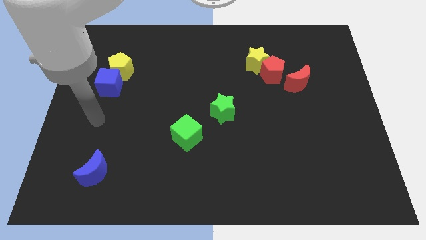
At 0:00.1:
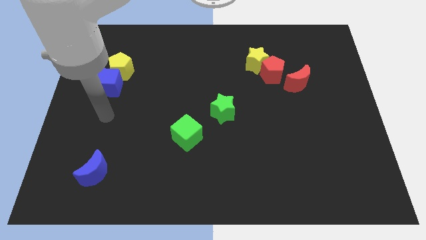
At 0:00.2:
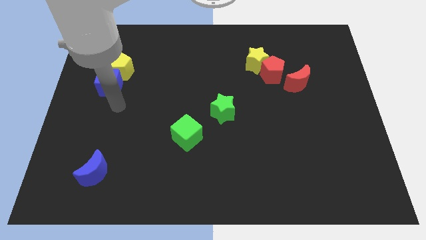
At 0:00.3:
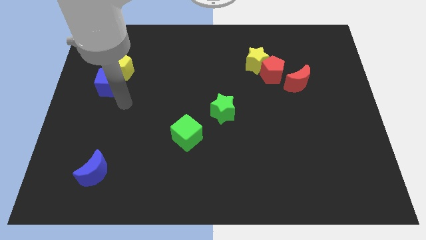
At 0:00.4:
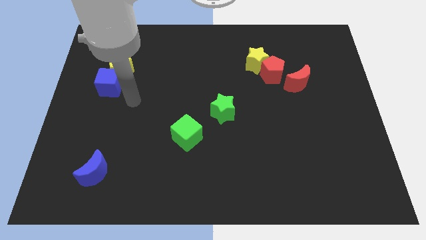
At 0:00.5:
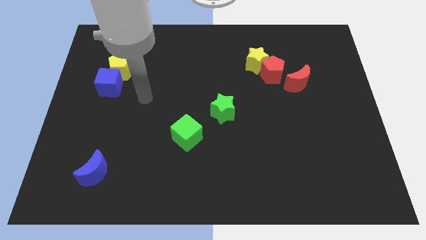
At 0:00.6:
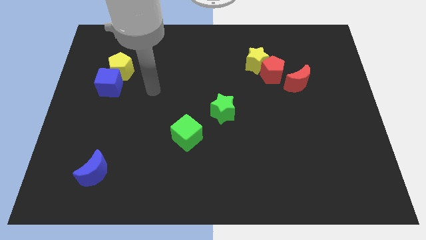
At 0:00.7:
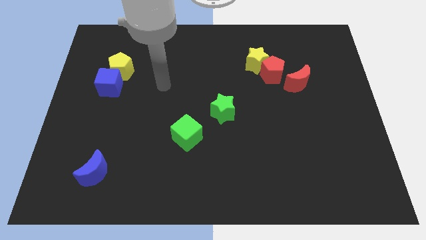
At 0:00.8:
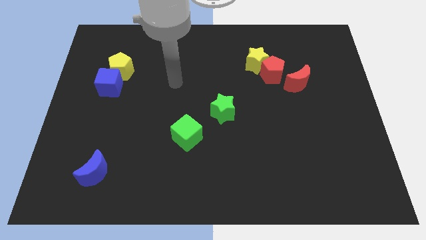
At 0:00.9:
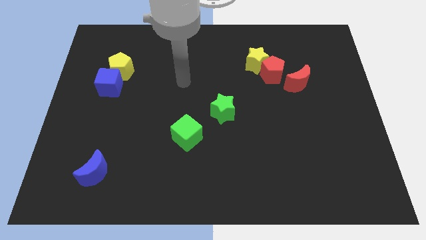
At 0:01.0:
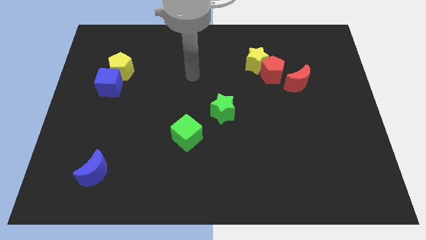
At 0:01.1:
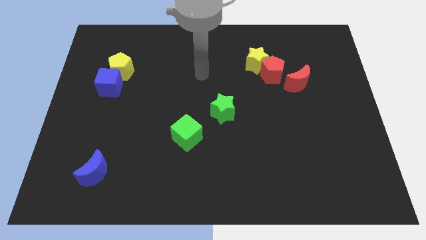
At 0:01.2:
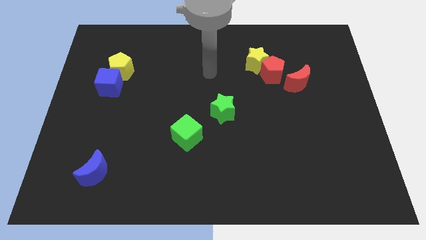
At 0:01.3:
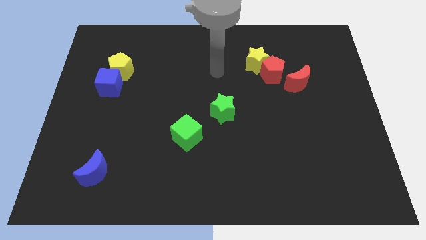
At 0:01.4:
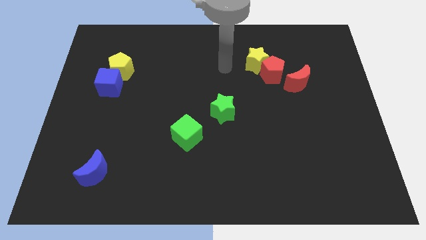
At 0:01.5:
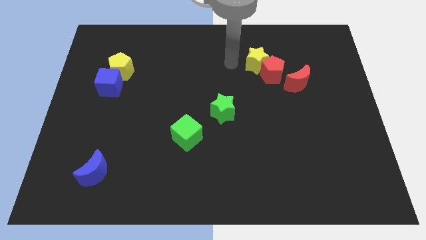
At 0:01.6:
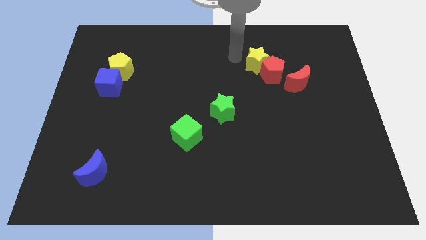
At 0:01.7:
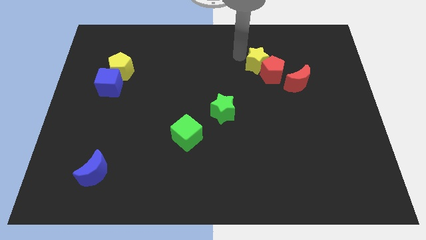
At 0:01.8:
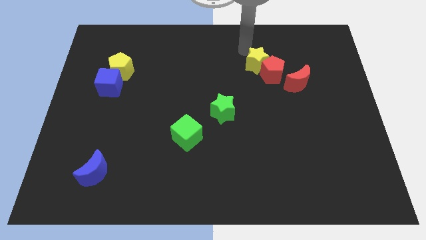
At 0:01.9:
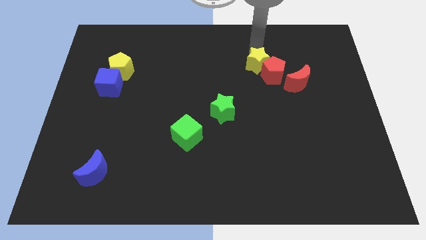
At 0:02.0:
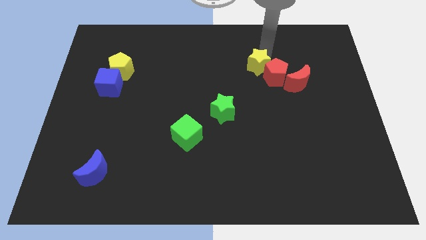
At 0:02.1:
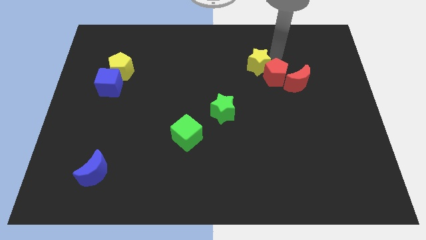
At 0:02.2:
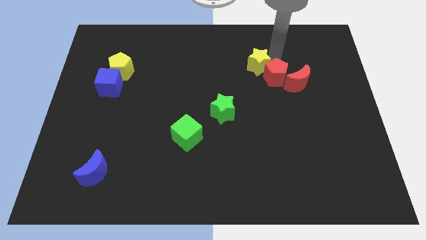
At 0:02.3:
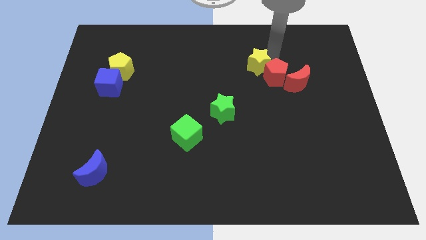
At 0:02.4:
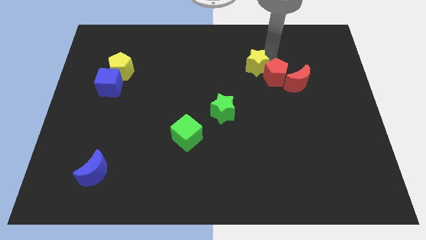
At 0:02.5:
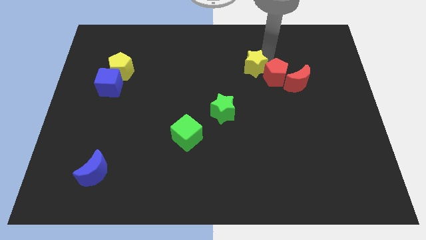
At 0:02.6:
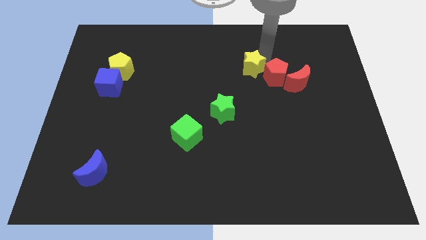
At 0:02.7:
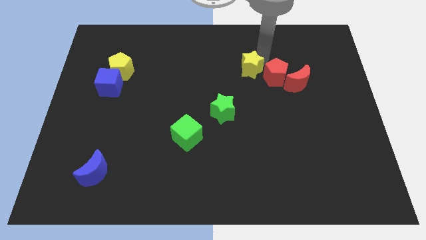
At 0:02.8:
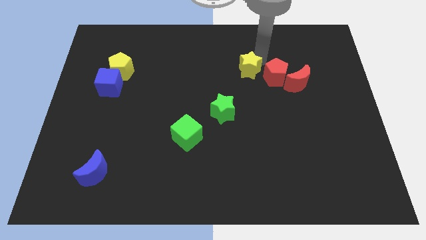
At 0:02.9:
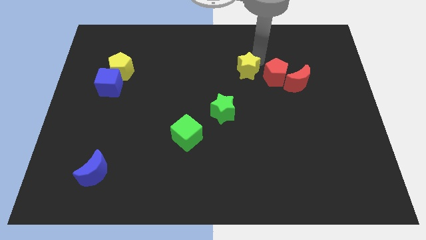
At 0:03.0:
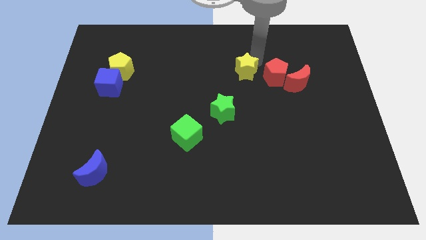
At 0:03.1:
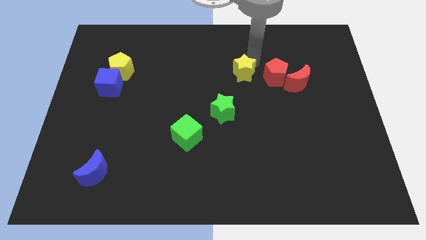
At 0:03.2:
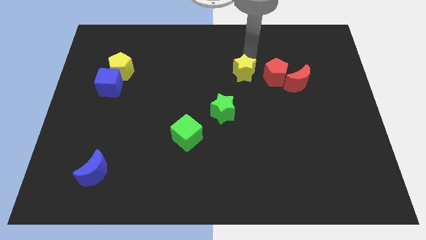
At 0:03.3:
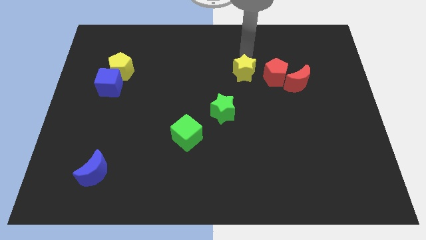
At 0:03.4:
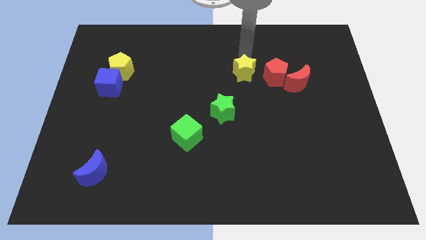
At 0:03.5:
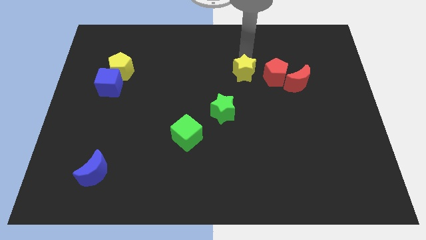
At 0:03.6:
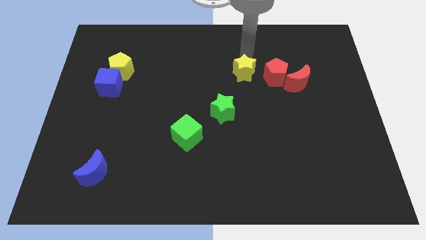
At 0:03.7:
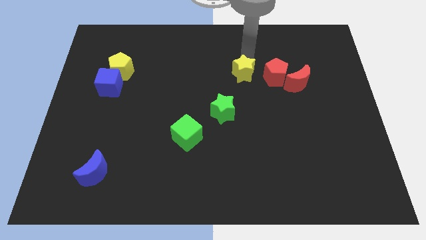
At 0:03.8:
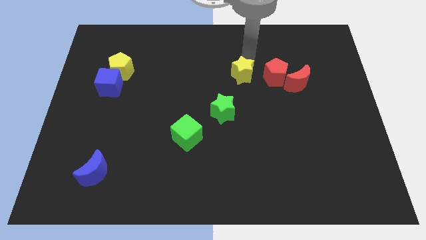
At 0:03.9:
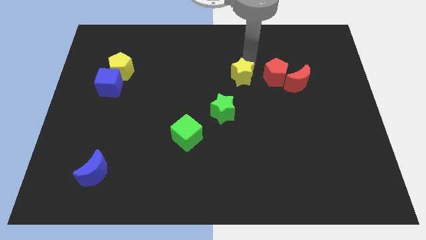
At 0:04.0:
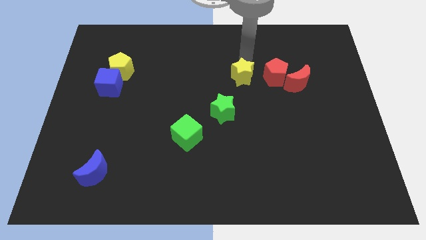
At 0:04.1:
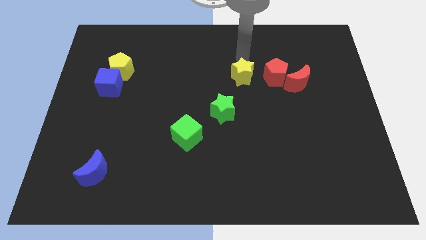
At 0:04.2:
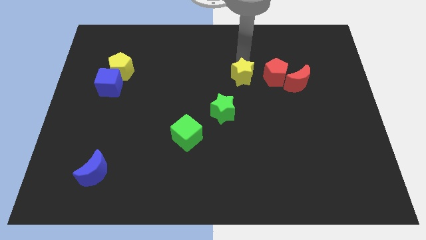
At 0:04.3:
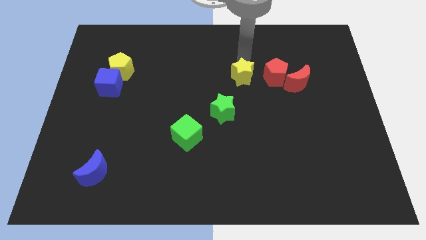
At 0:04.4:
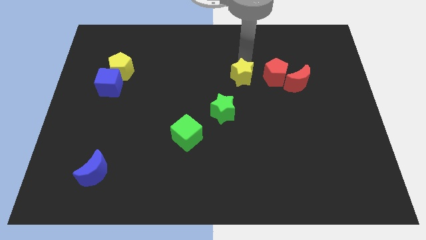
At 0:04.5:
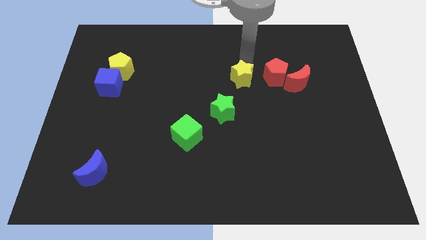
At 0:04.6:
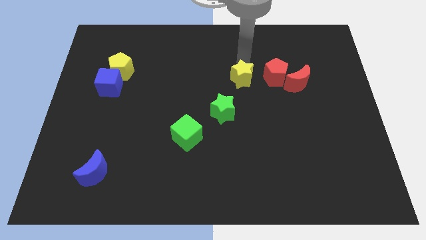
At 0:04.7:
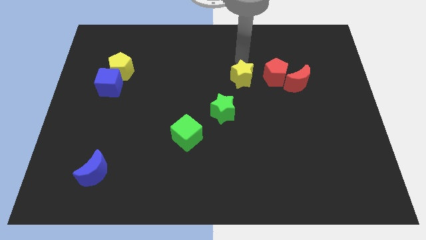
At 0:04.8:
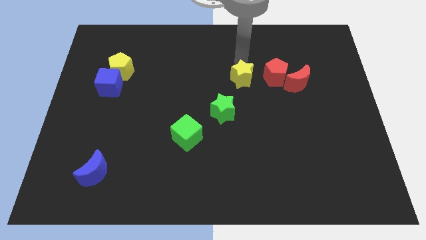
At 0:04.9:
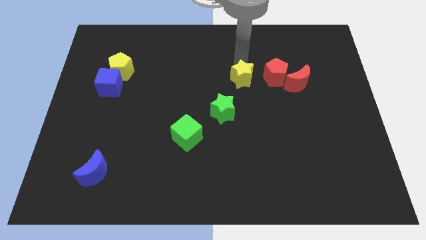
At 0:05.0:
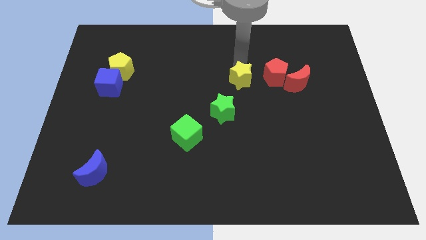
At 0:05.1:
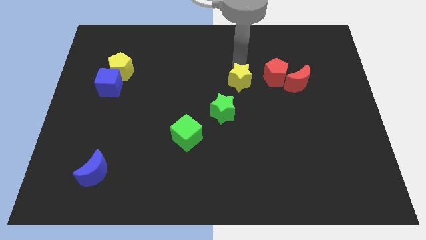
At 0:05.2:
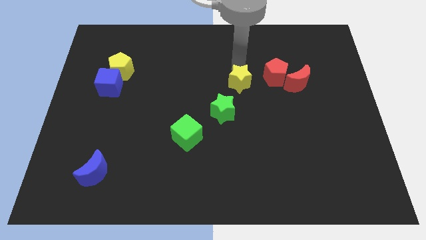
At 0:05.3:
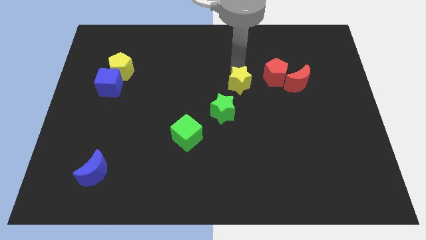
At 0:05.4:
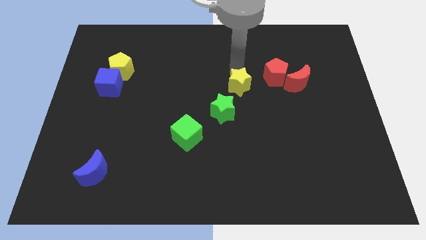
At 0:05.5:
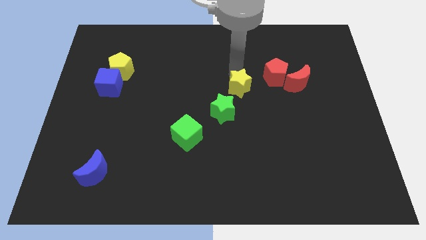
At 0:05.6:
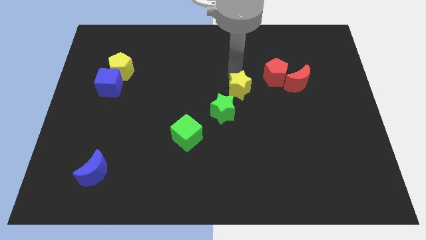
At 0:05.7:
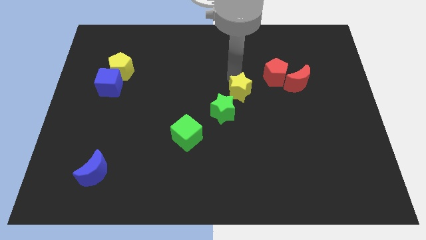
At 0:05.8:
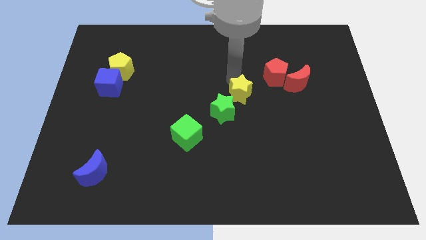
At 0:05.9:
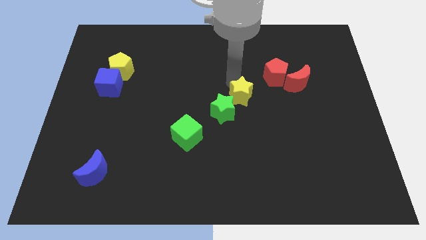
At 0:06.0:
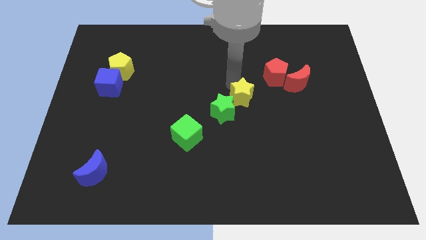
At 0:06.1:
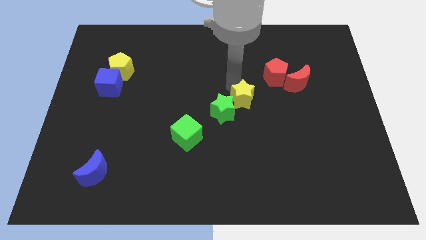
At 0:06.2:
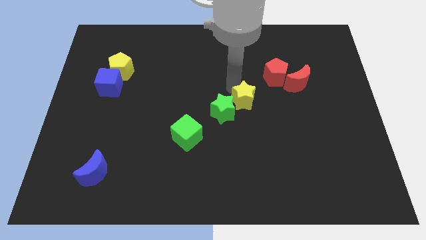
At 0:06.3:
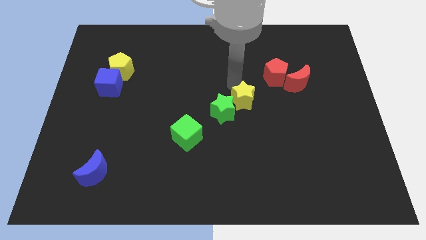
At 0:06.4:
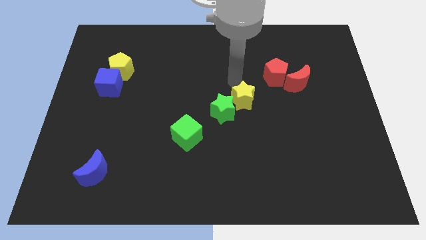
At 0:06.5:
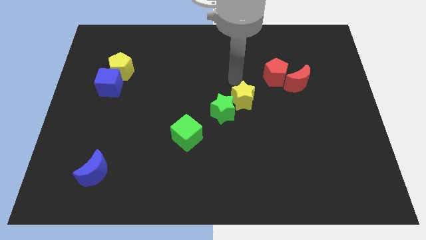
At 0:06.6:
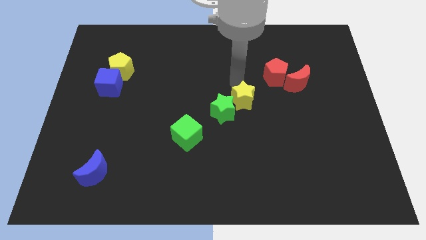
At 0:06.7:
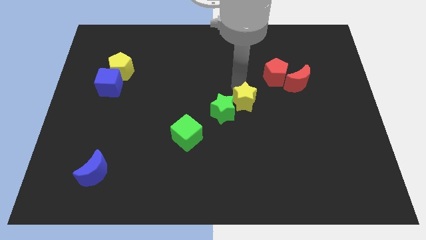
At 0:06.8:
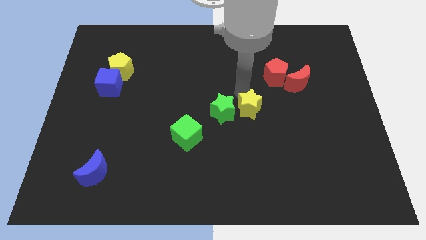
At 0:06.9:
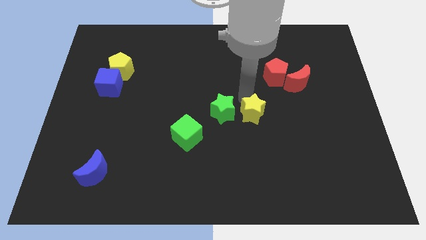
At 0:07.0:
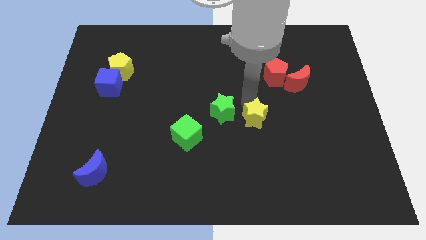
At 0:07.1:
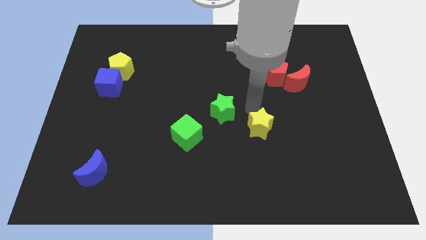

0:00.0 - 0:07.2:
move the yellow star down

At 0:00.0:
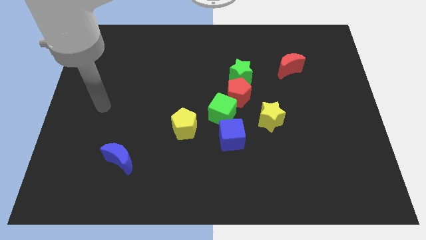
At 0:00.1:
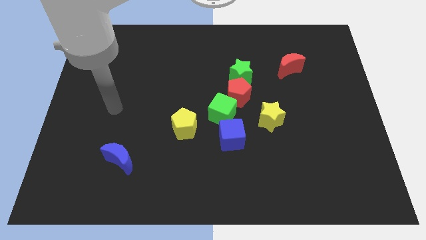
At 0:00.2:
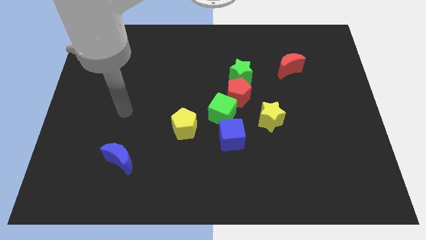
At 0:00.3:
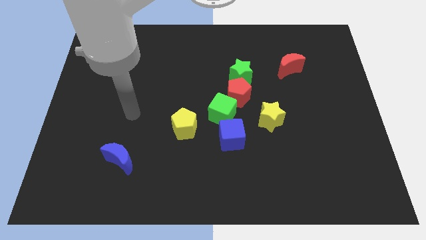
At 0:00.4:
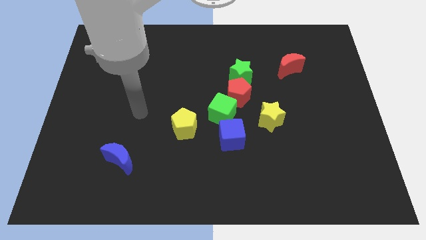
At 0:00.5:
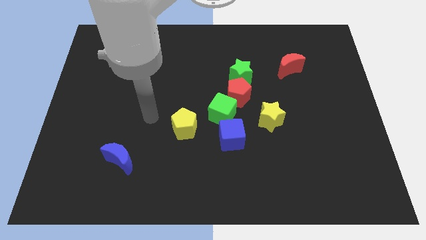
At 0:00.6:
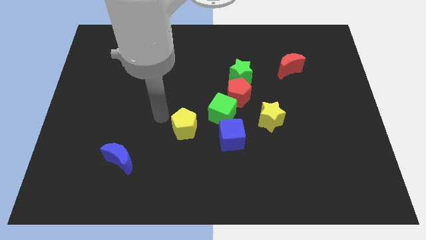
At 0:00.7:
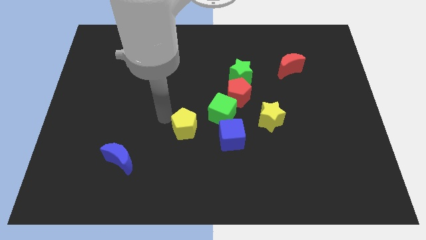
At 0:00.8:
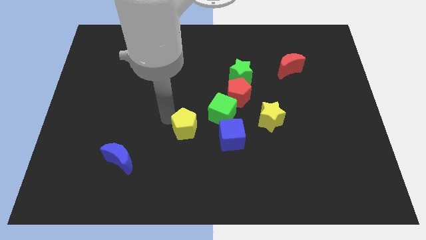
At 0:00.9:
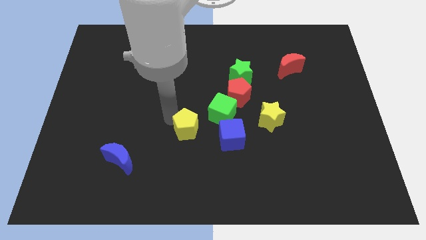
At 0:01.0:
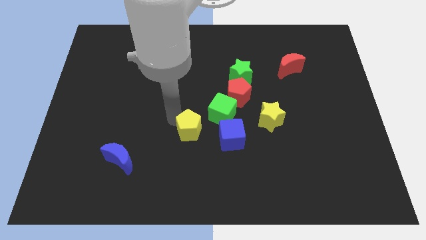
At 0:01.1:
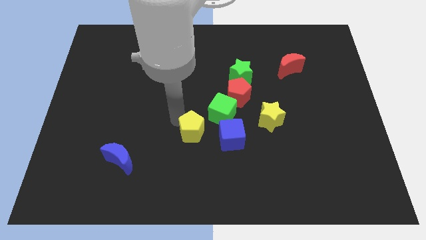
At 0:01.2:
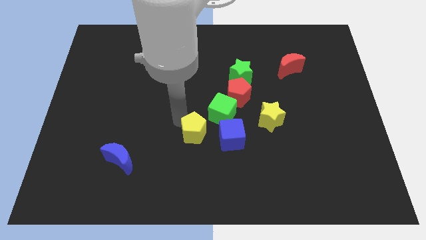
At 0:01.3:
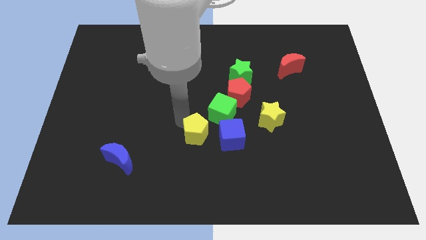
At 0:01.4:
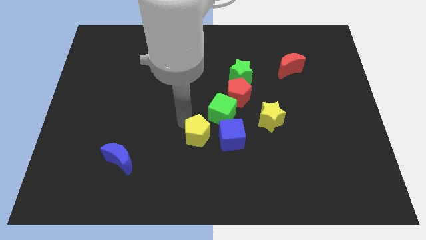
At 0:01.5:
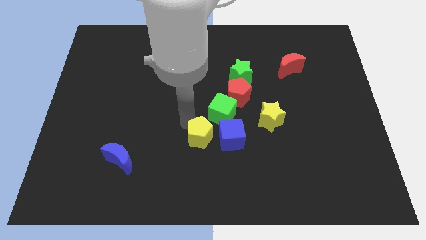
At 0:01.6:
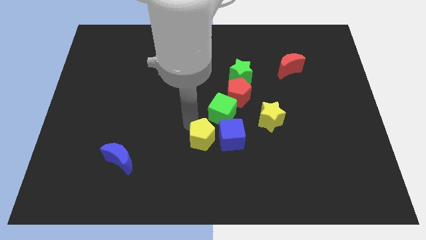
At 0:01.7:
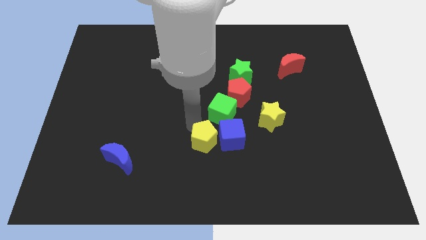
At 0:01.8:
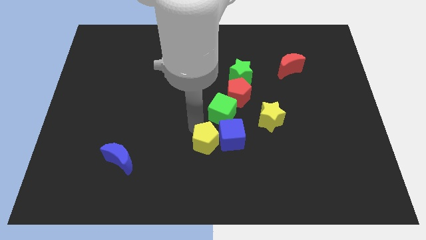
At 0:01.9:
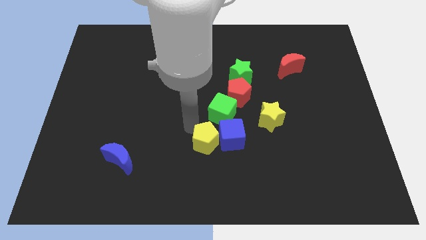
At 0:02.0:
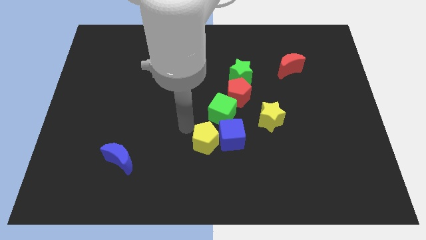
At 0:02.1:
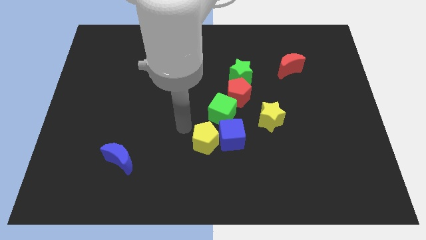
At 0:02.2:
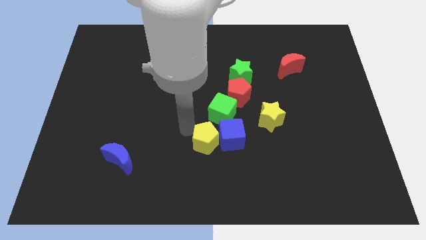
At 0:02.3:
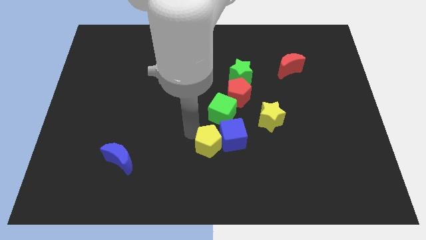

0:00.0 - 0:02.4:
push the yellow pentagon slightly diagonally down and right
